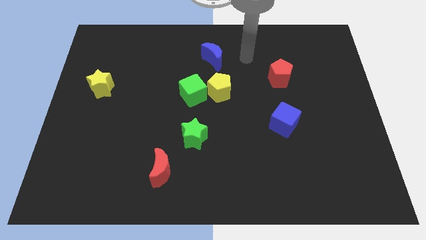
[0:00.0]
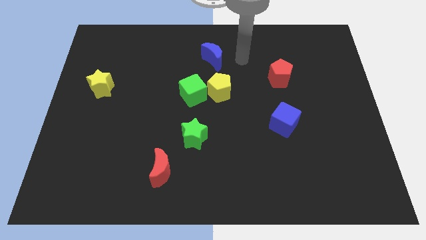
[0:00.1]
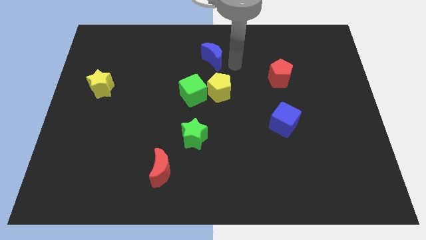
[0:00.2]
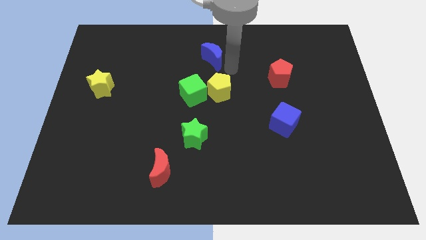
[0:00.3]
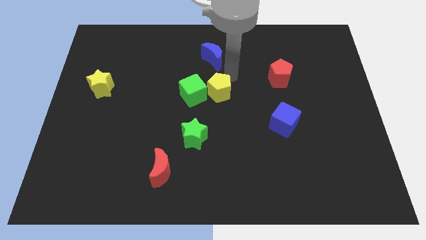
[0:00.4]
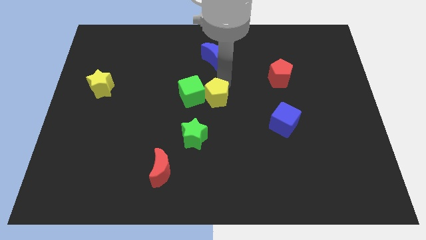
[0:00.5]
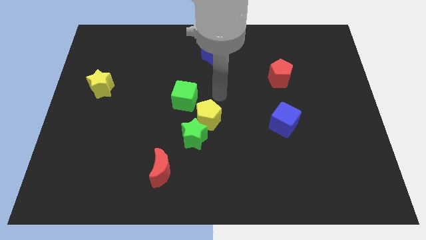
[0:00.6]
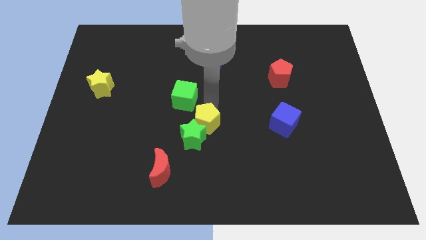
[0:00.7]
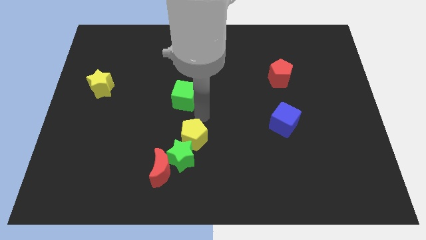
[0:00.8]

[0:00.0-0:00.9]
pull the green cube apart from the yellow pentagon

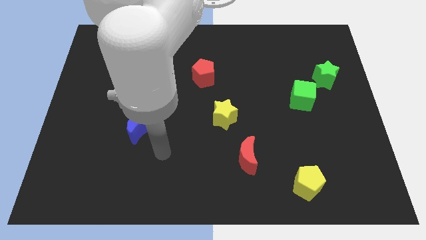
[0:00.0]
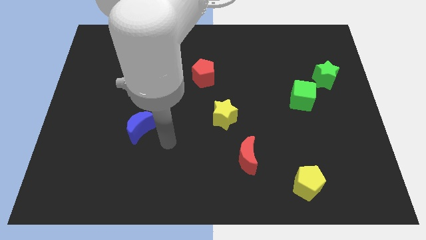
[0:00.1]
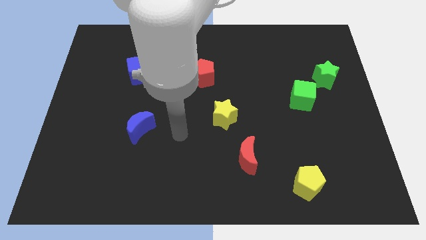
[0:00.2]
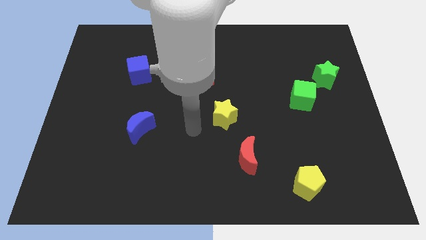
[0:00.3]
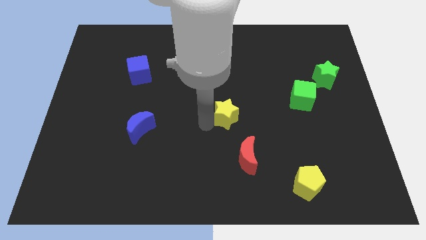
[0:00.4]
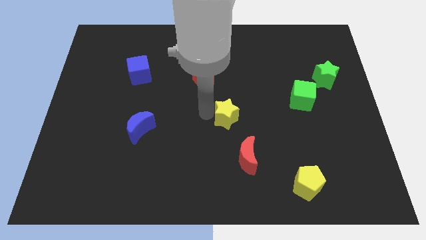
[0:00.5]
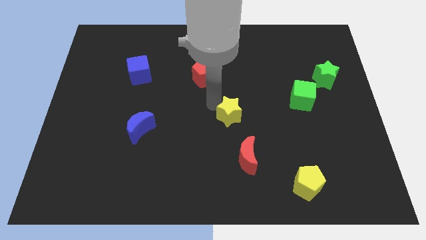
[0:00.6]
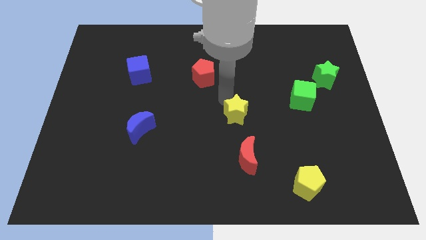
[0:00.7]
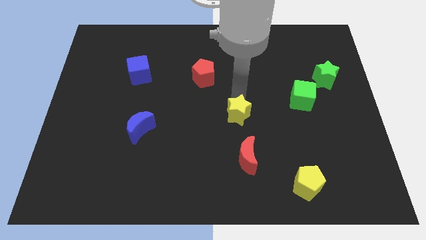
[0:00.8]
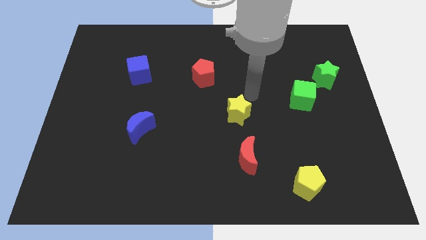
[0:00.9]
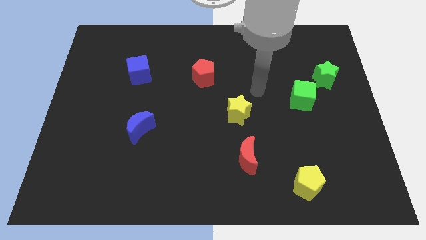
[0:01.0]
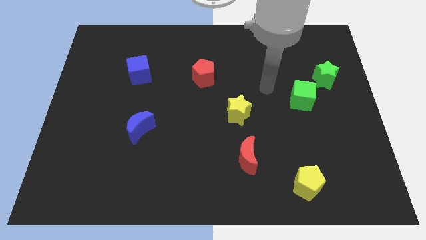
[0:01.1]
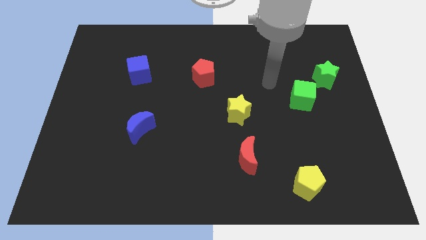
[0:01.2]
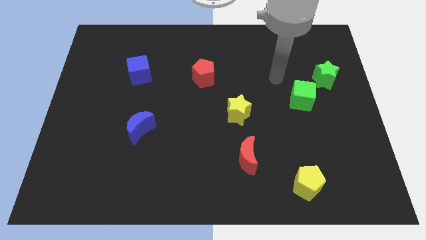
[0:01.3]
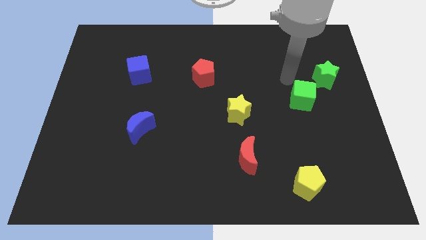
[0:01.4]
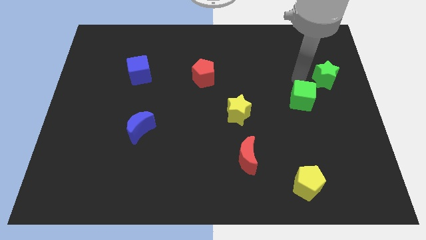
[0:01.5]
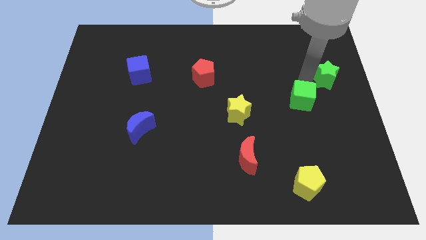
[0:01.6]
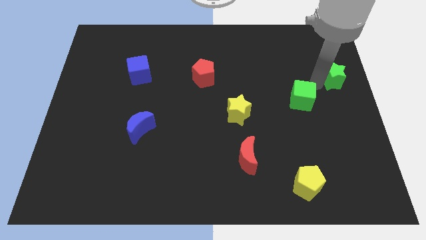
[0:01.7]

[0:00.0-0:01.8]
pull the green cube apart from the green star

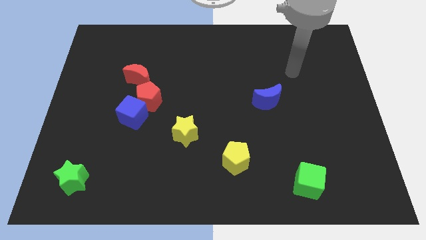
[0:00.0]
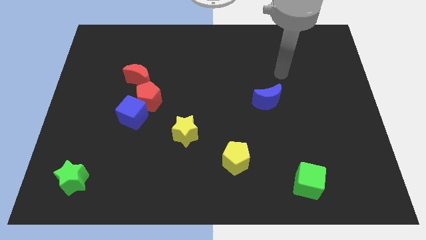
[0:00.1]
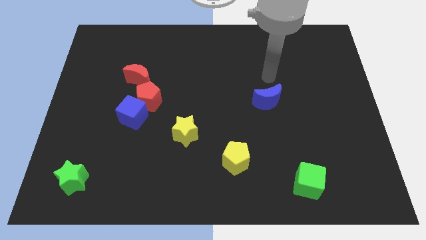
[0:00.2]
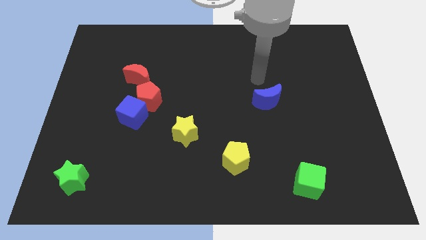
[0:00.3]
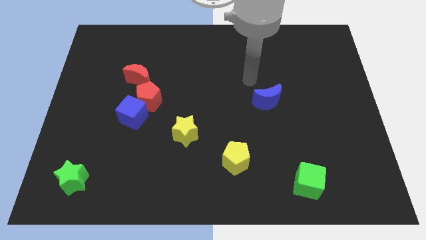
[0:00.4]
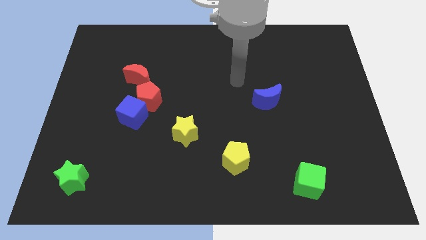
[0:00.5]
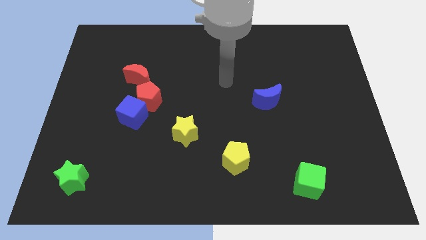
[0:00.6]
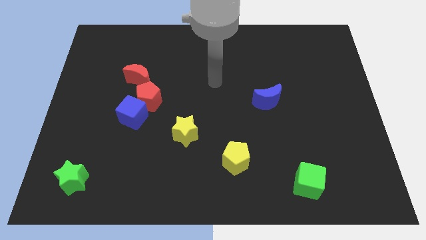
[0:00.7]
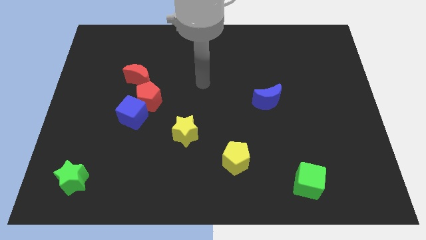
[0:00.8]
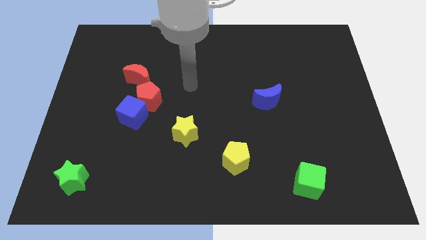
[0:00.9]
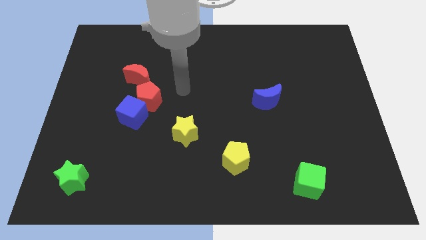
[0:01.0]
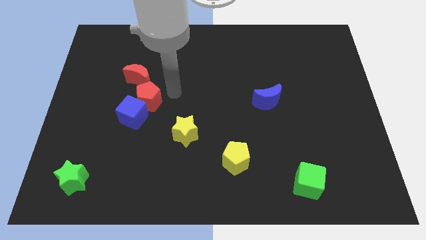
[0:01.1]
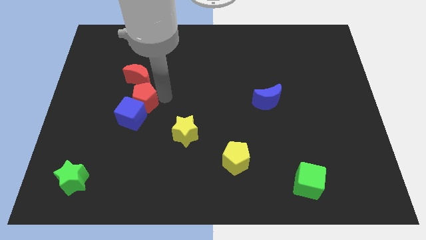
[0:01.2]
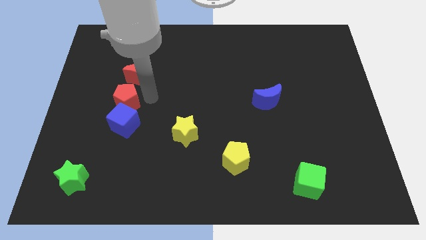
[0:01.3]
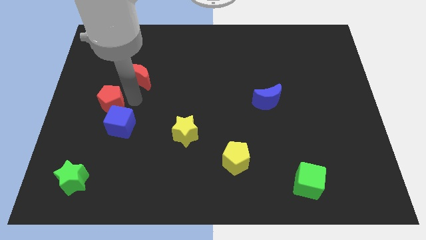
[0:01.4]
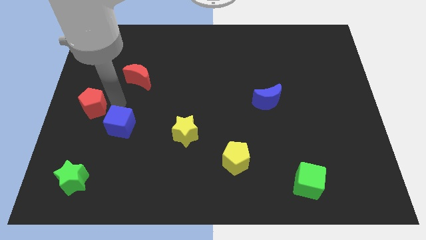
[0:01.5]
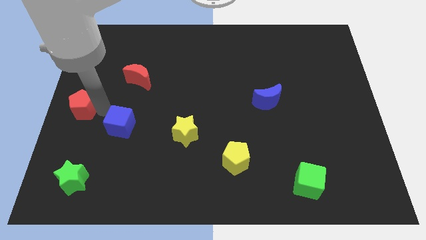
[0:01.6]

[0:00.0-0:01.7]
separate the blue cube from the red pentagon

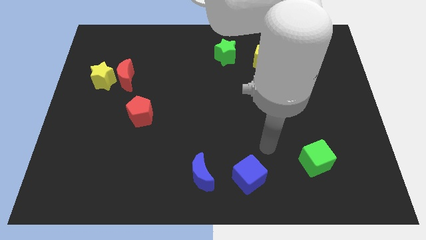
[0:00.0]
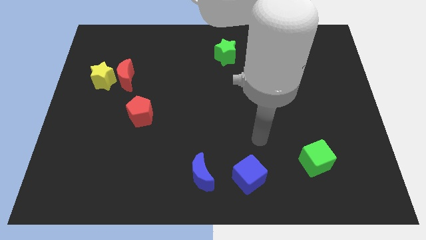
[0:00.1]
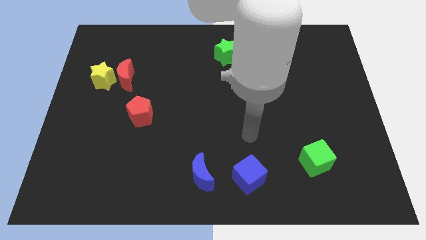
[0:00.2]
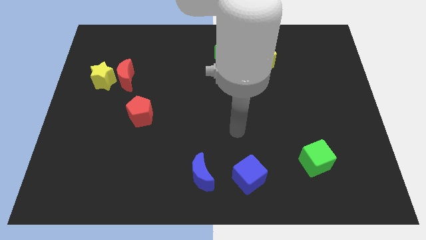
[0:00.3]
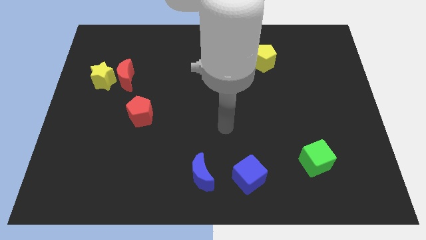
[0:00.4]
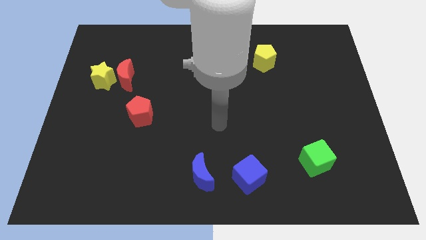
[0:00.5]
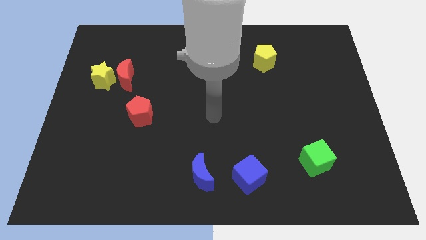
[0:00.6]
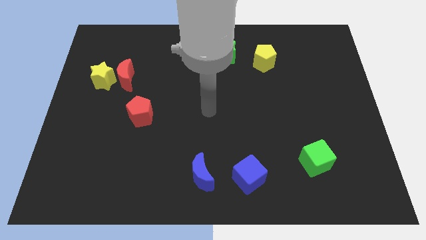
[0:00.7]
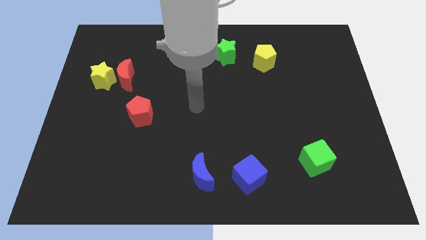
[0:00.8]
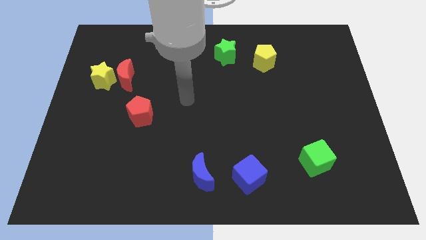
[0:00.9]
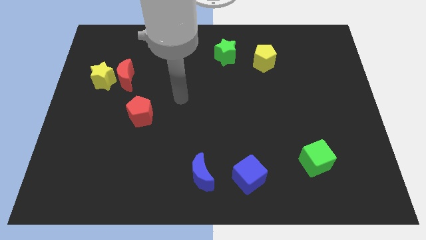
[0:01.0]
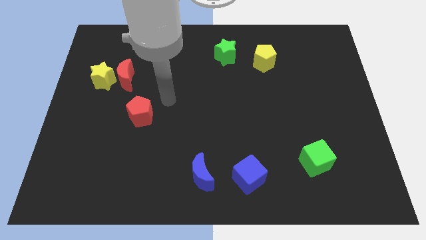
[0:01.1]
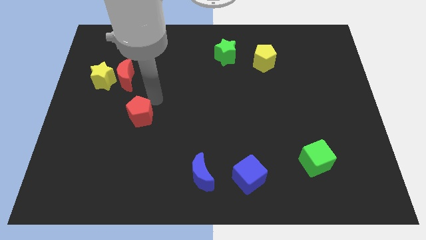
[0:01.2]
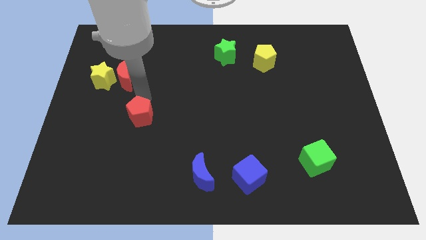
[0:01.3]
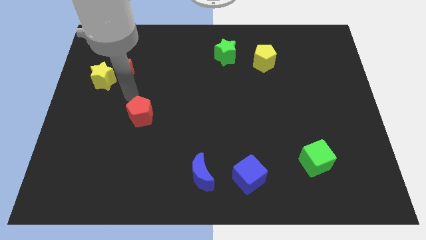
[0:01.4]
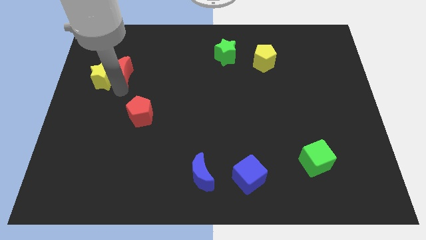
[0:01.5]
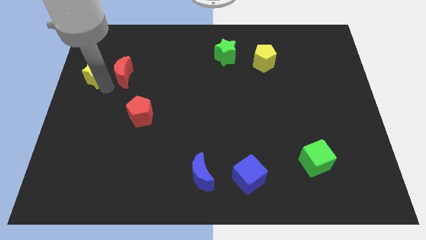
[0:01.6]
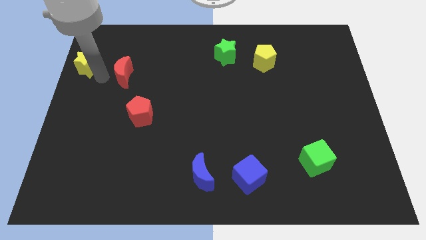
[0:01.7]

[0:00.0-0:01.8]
move the red moon away from the yellow star

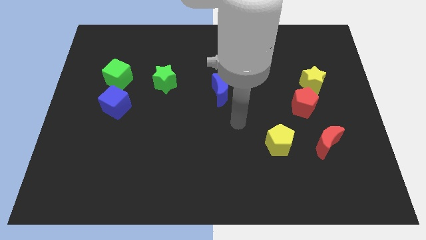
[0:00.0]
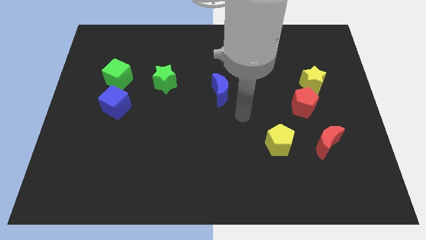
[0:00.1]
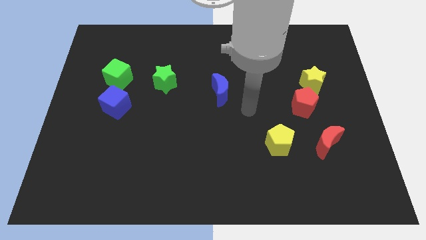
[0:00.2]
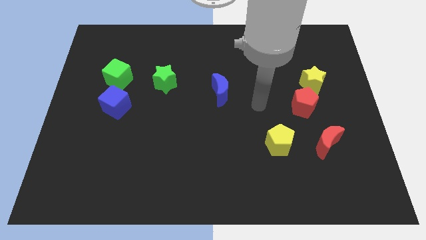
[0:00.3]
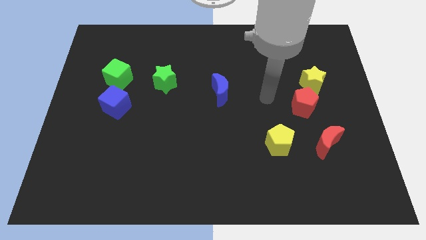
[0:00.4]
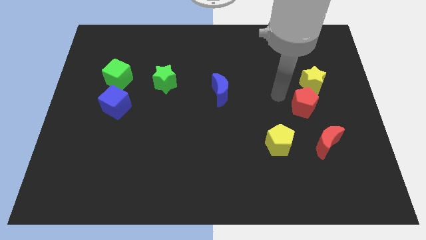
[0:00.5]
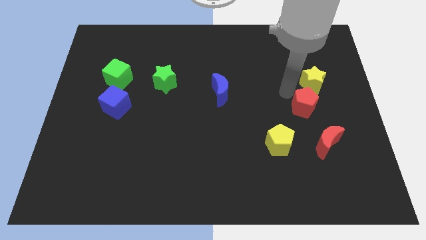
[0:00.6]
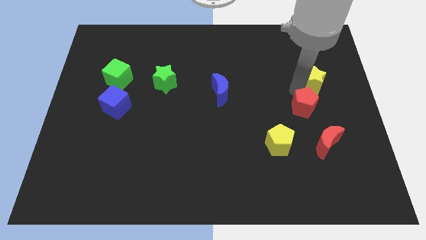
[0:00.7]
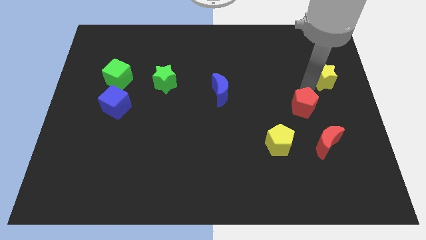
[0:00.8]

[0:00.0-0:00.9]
move the red pentagon away from the yellow star

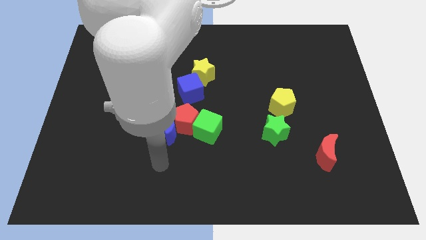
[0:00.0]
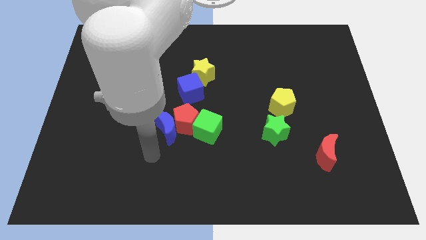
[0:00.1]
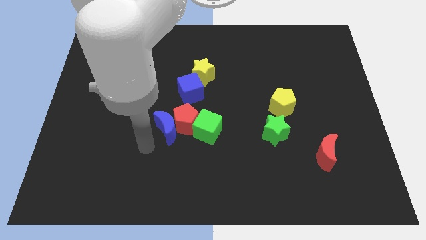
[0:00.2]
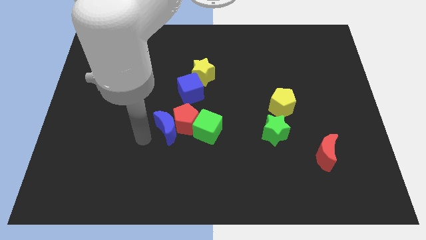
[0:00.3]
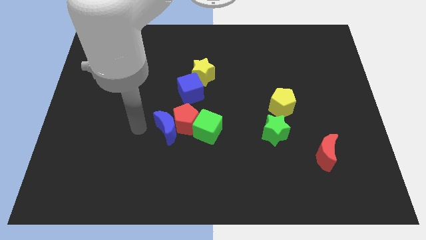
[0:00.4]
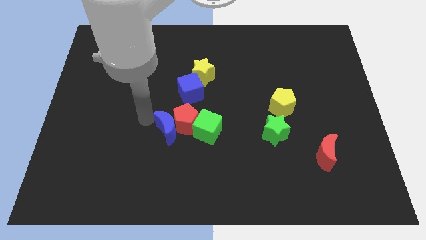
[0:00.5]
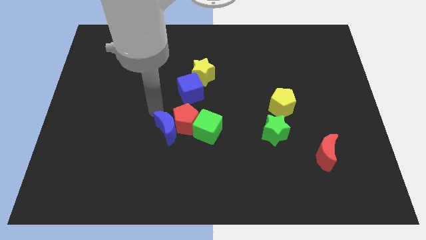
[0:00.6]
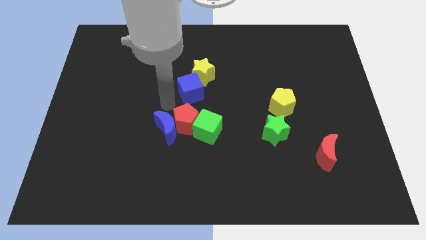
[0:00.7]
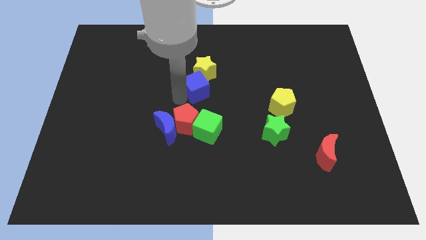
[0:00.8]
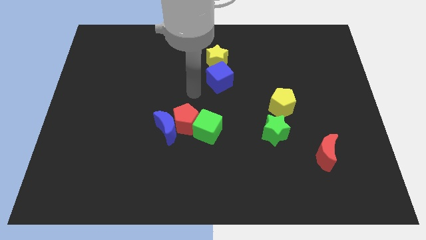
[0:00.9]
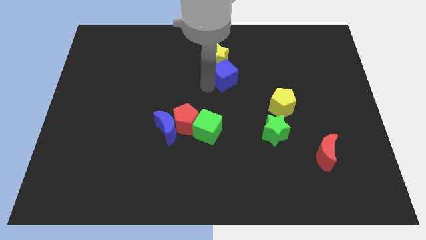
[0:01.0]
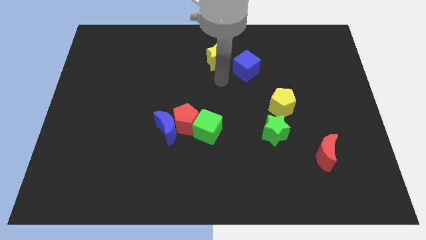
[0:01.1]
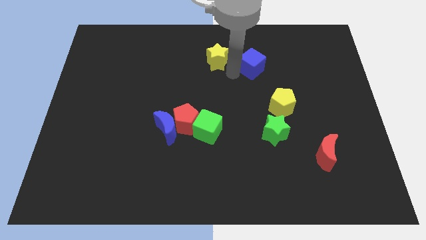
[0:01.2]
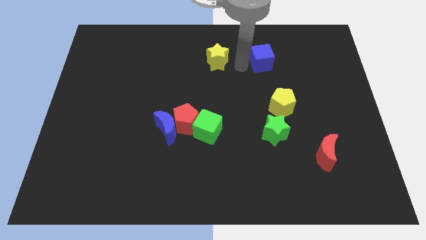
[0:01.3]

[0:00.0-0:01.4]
move the yellow star away from the blue cube

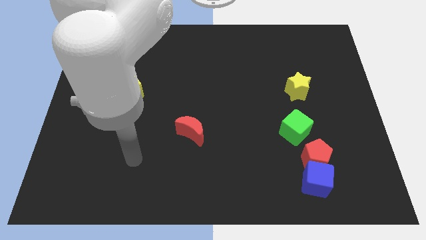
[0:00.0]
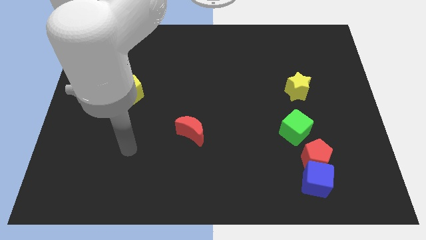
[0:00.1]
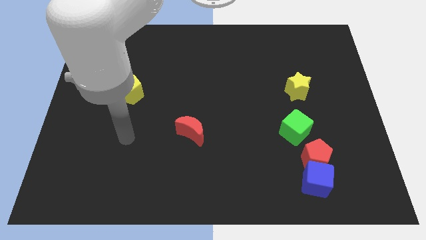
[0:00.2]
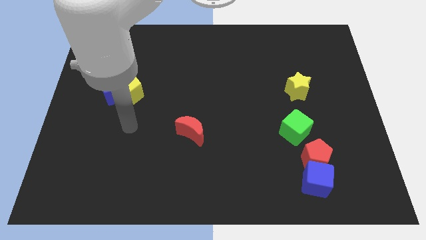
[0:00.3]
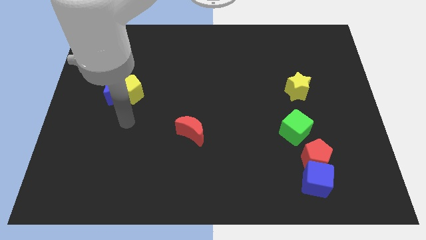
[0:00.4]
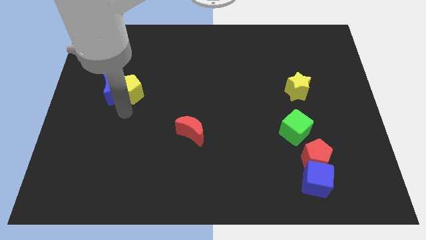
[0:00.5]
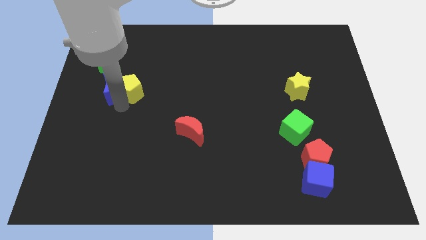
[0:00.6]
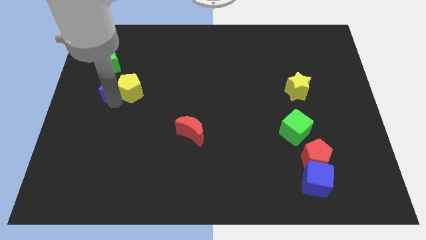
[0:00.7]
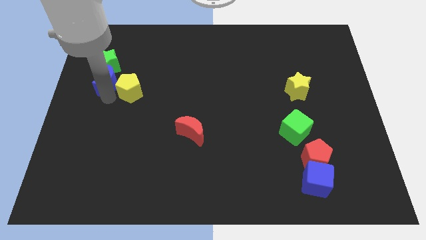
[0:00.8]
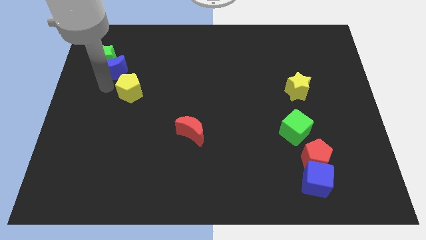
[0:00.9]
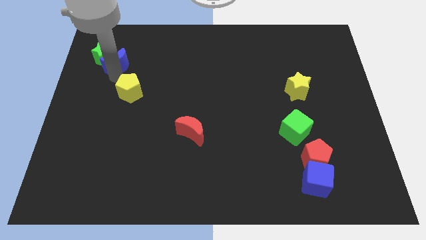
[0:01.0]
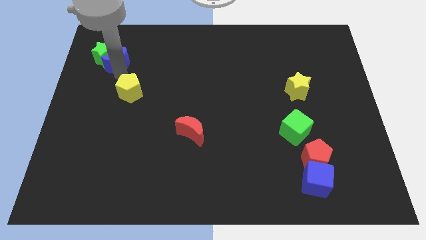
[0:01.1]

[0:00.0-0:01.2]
separate the yellow pentagon from the blue moon
